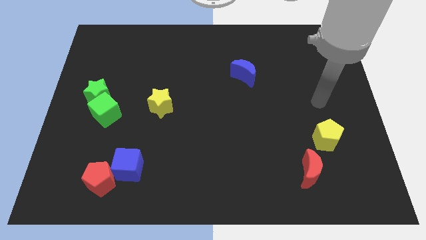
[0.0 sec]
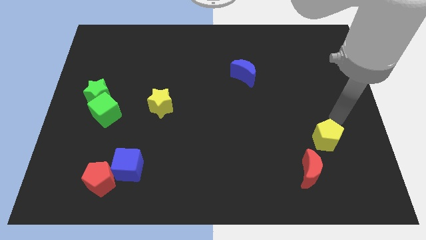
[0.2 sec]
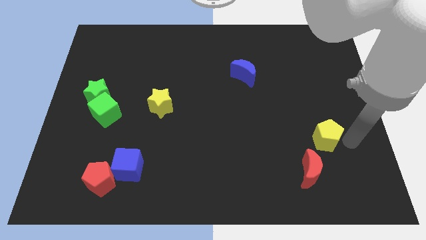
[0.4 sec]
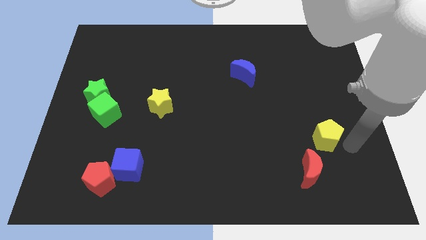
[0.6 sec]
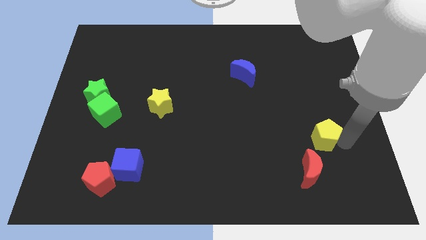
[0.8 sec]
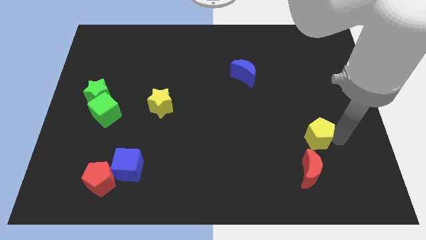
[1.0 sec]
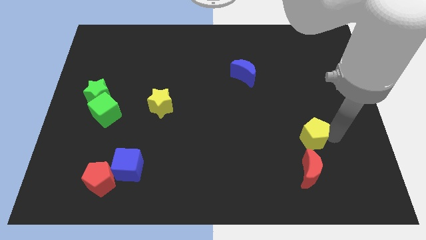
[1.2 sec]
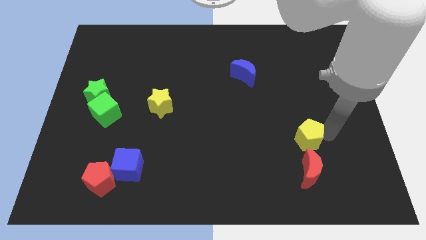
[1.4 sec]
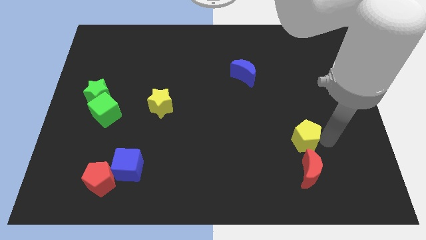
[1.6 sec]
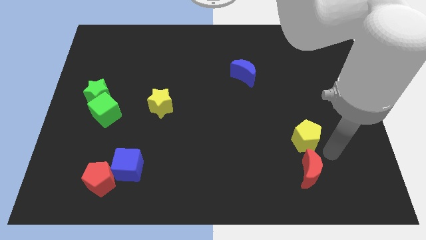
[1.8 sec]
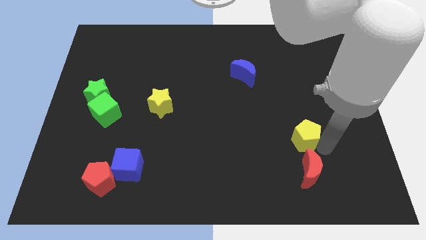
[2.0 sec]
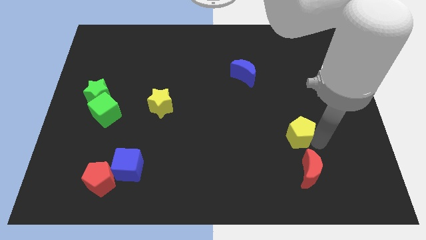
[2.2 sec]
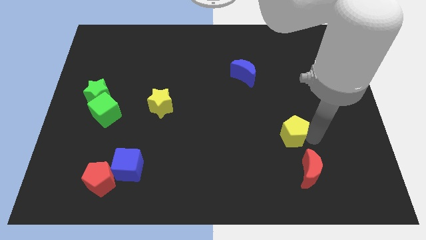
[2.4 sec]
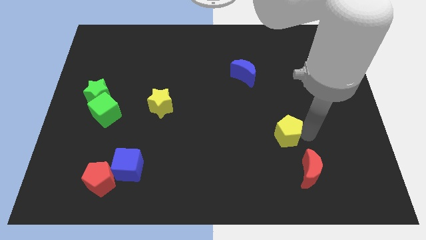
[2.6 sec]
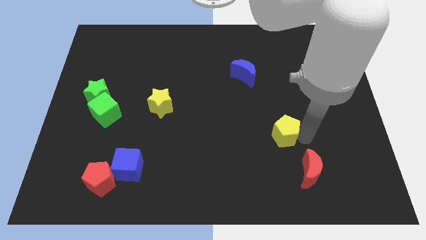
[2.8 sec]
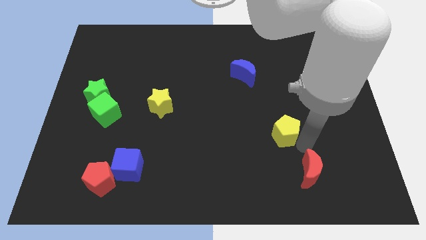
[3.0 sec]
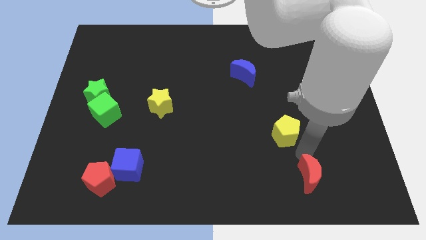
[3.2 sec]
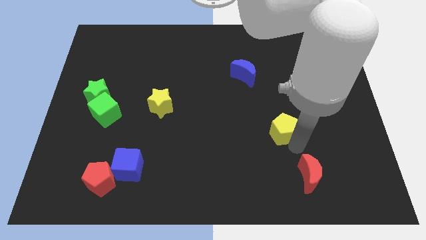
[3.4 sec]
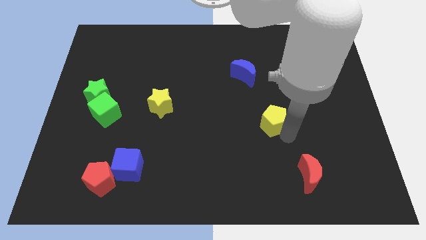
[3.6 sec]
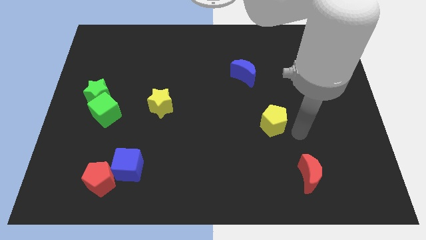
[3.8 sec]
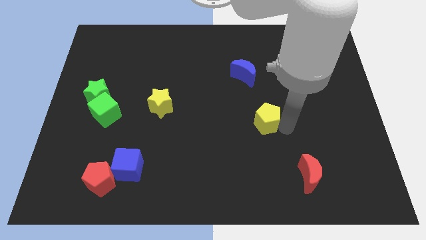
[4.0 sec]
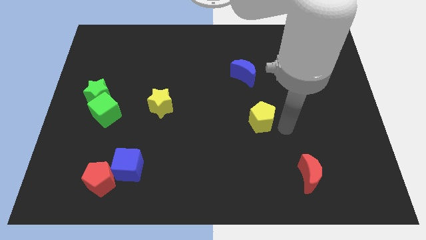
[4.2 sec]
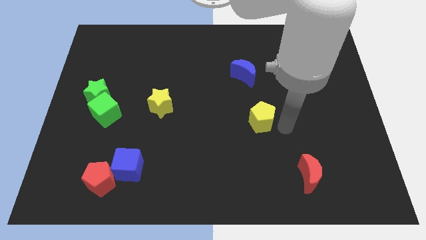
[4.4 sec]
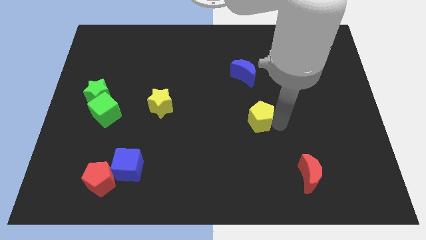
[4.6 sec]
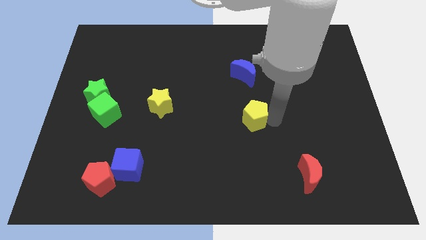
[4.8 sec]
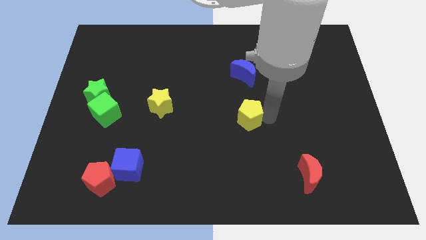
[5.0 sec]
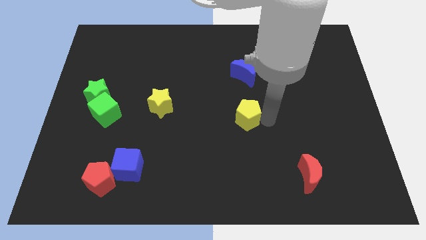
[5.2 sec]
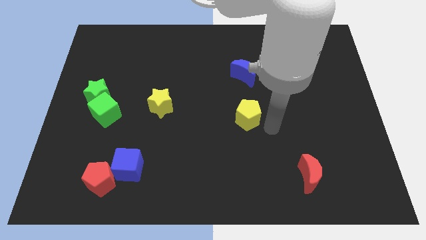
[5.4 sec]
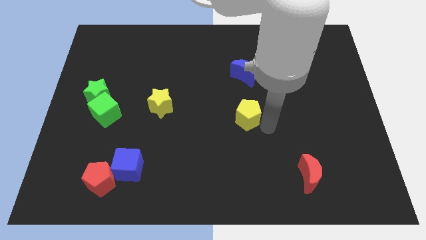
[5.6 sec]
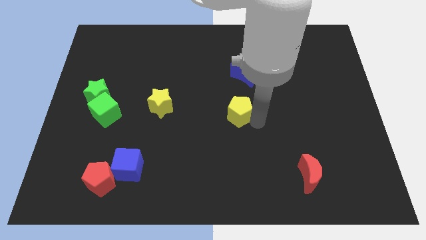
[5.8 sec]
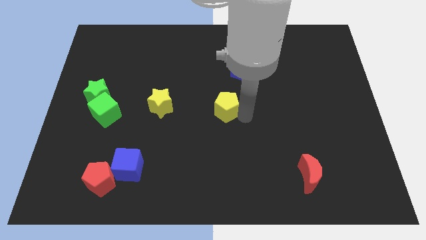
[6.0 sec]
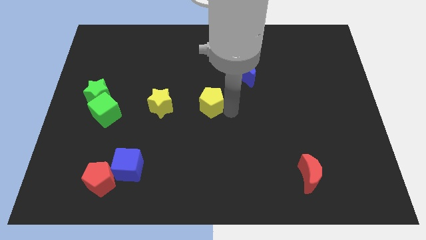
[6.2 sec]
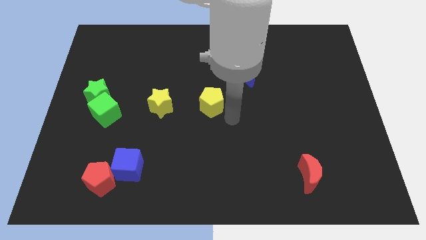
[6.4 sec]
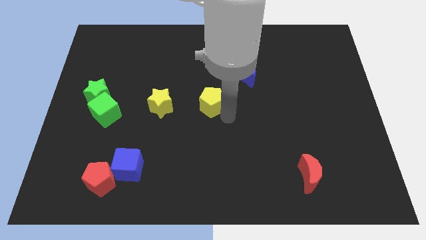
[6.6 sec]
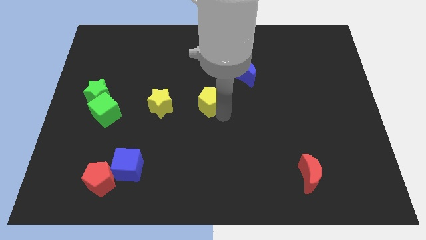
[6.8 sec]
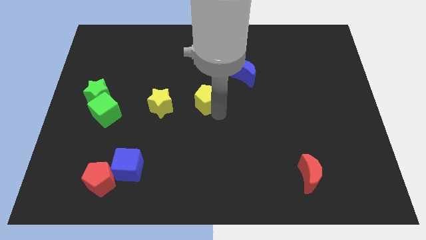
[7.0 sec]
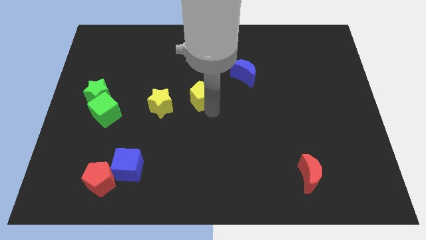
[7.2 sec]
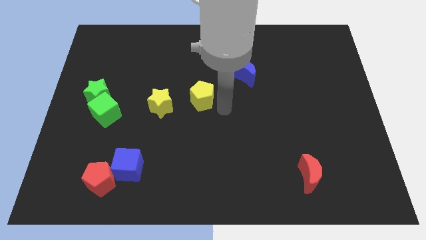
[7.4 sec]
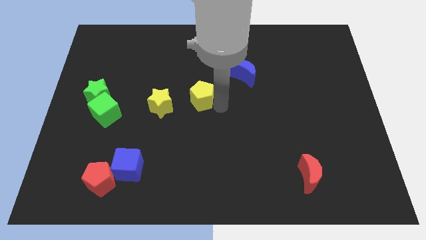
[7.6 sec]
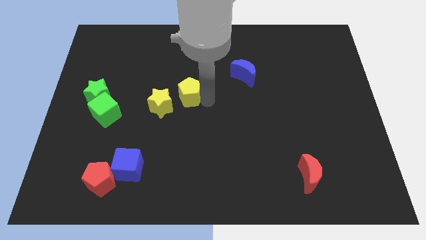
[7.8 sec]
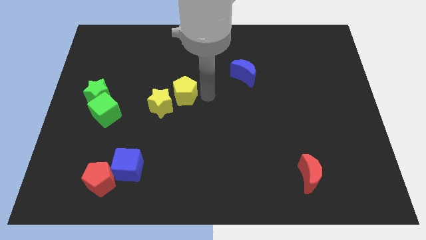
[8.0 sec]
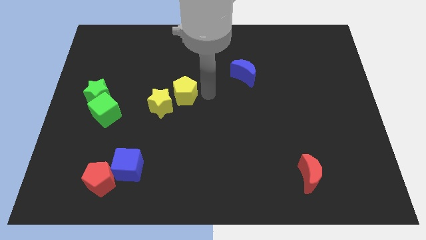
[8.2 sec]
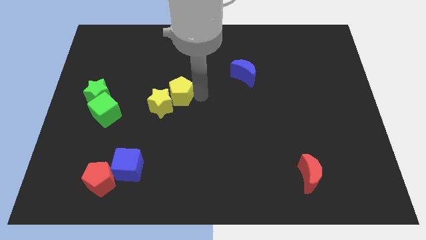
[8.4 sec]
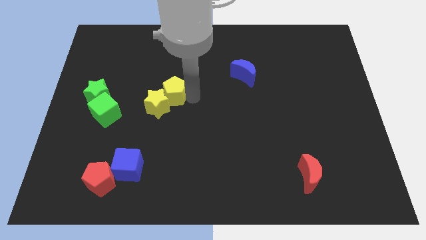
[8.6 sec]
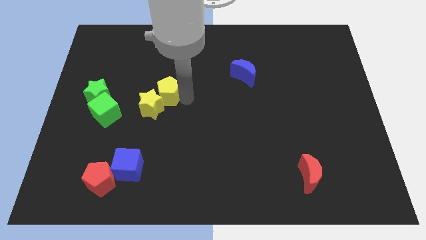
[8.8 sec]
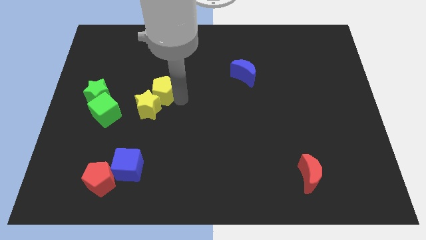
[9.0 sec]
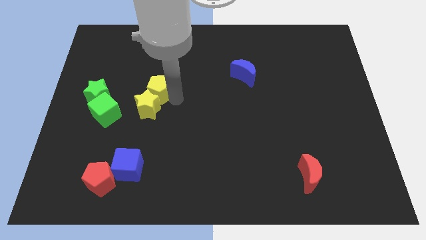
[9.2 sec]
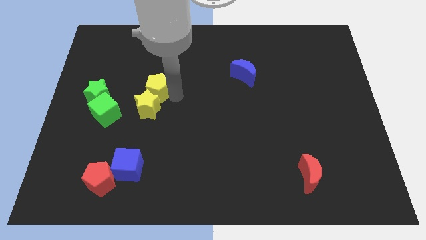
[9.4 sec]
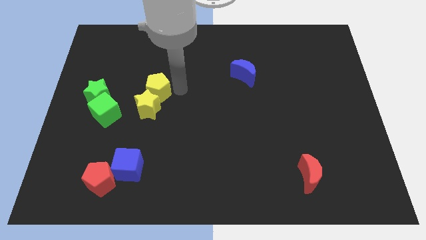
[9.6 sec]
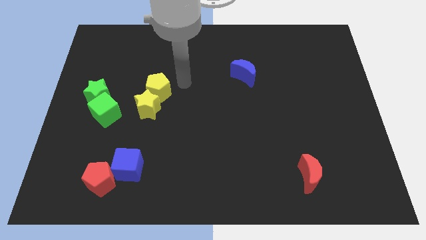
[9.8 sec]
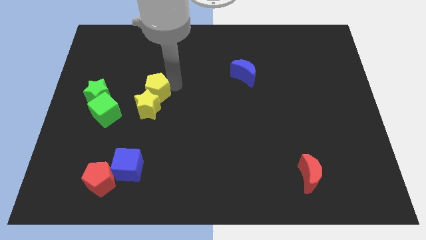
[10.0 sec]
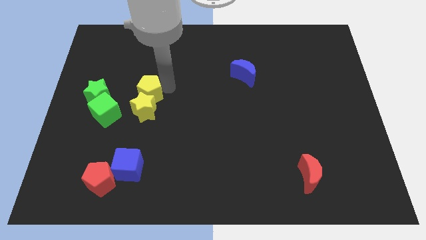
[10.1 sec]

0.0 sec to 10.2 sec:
put the yellow pentagon to the top right side of the green cube

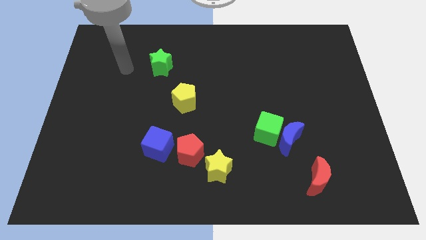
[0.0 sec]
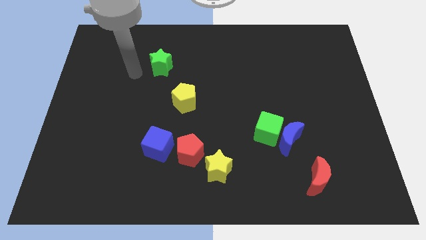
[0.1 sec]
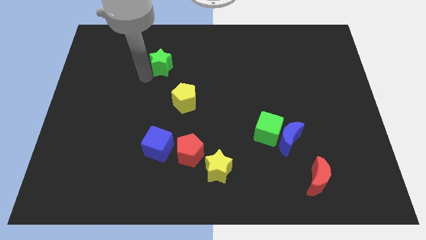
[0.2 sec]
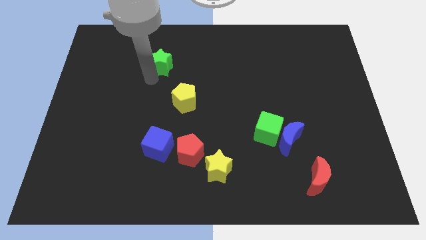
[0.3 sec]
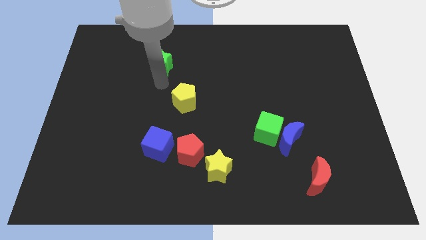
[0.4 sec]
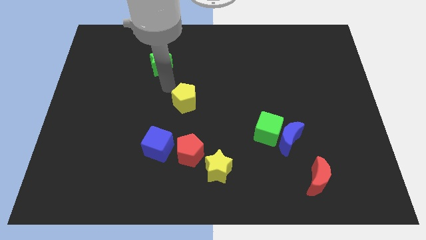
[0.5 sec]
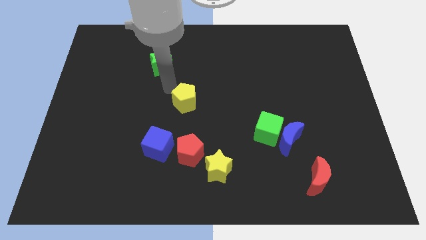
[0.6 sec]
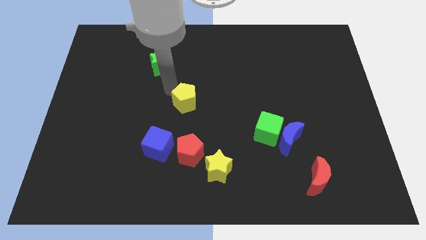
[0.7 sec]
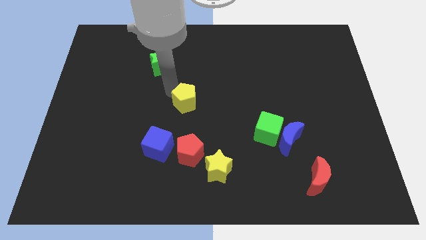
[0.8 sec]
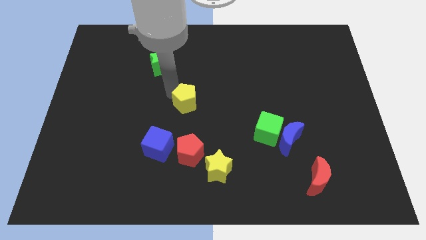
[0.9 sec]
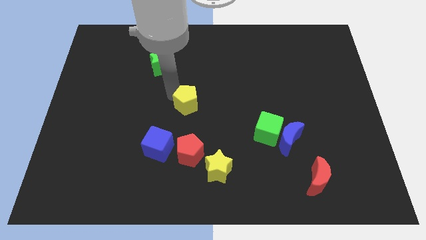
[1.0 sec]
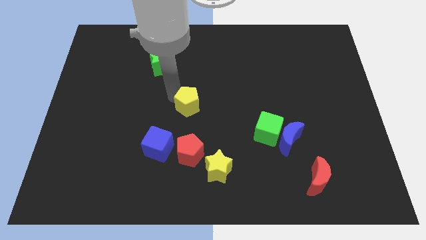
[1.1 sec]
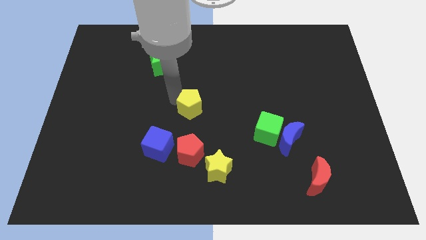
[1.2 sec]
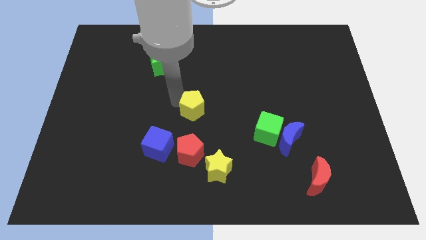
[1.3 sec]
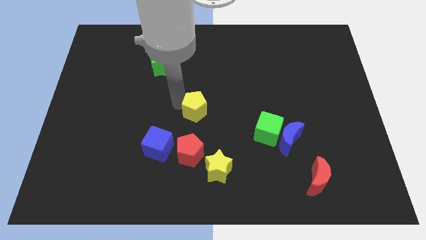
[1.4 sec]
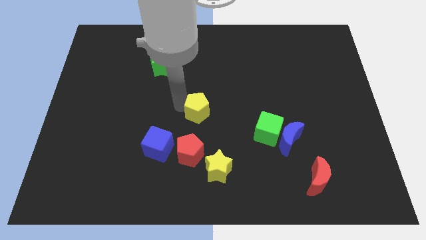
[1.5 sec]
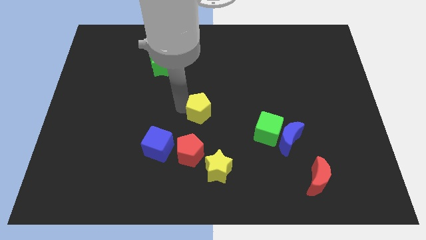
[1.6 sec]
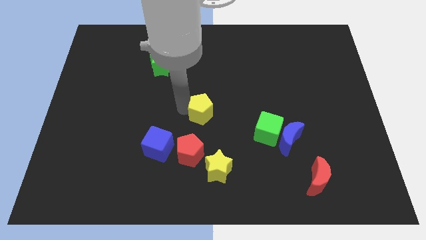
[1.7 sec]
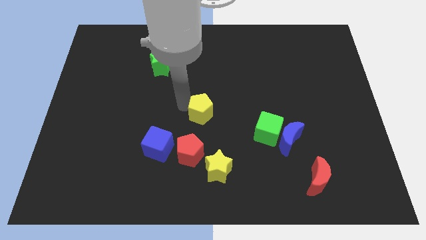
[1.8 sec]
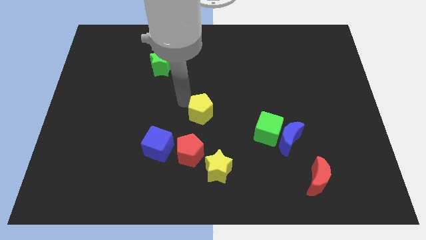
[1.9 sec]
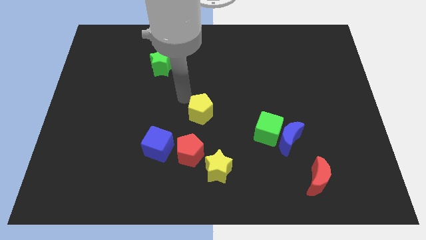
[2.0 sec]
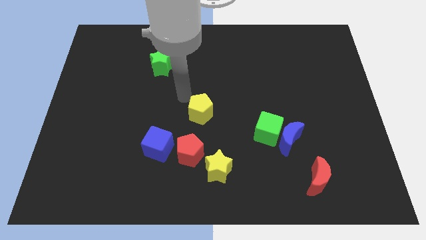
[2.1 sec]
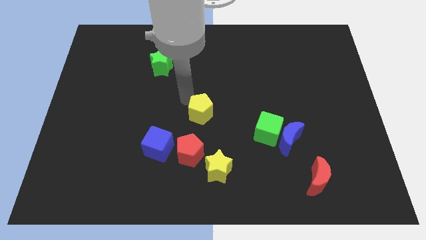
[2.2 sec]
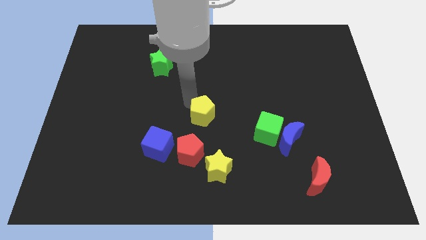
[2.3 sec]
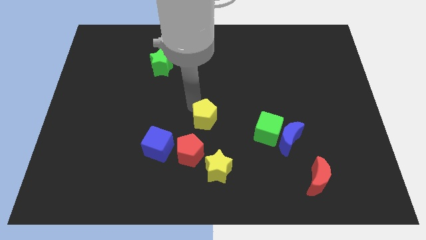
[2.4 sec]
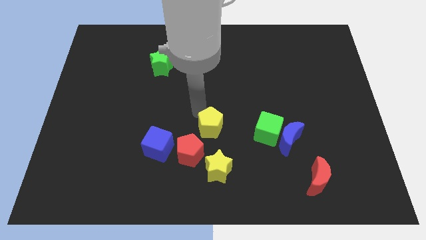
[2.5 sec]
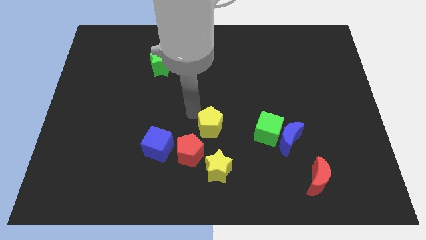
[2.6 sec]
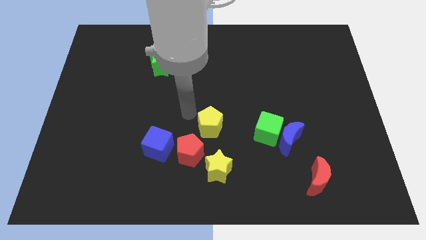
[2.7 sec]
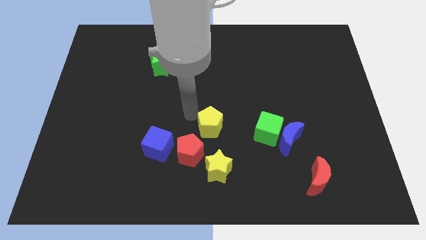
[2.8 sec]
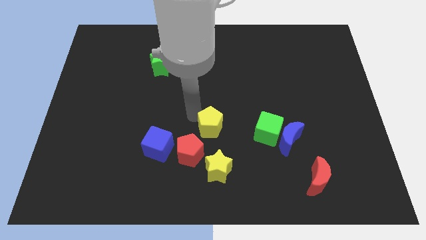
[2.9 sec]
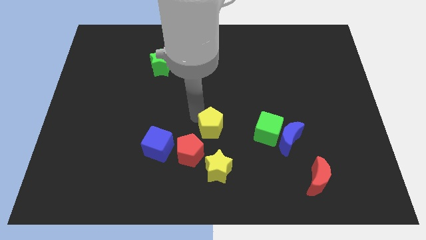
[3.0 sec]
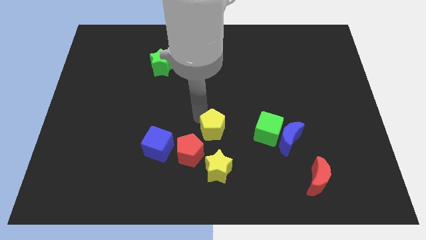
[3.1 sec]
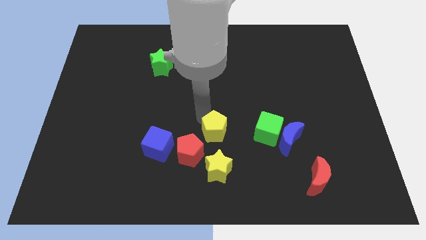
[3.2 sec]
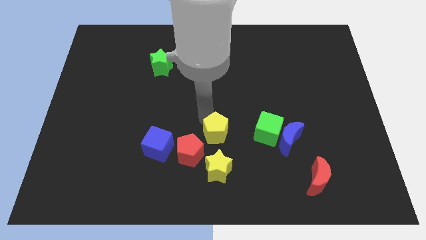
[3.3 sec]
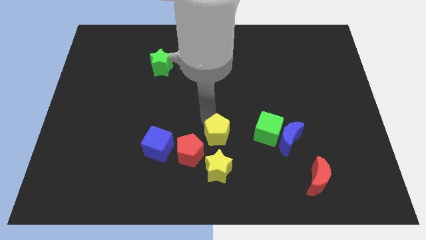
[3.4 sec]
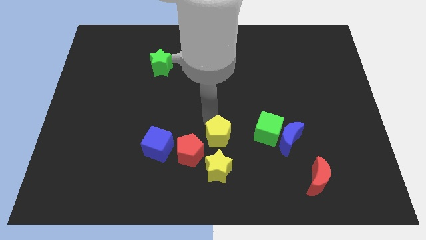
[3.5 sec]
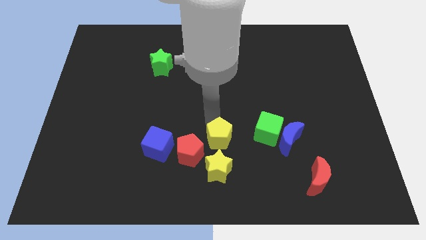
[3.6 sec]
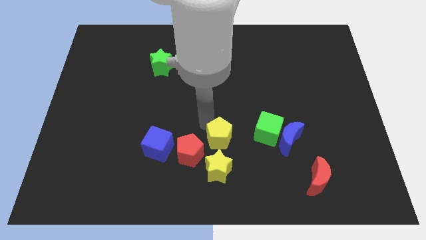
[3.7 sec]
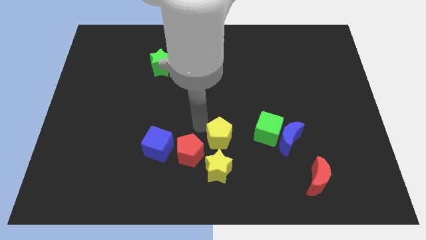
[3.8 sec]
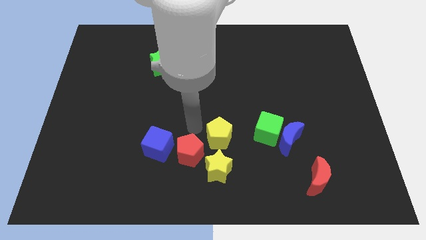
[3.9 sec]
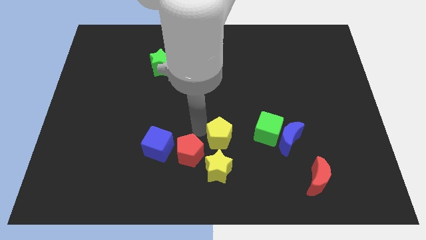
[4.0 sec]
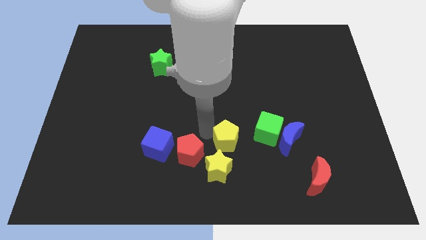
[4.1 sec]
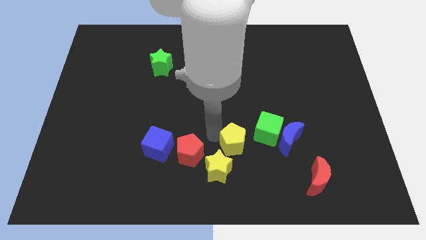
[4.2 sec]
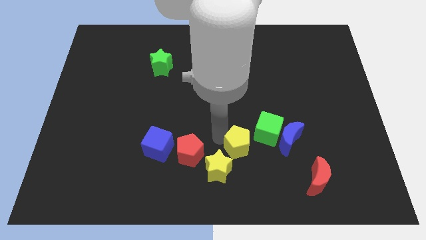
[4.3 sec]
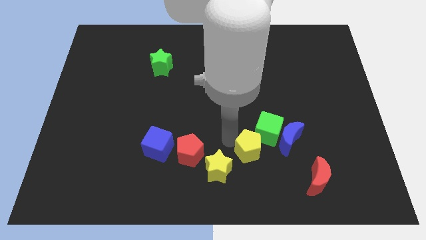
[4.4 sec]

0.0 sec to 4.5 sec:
put the yellow pentagon to the right of the yellow star
